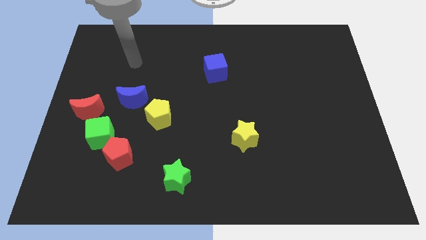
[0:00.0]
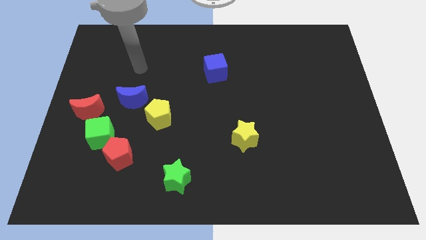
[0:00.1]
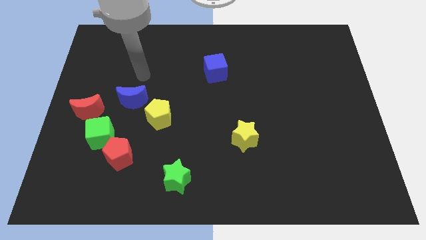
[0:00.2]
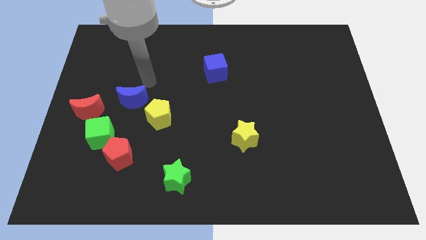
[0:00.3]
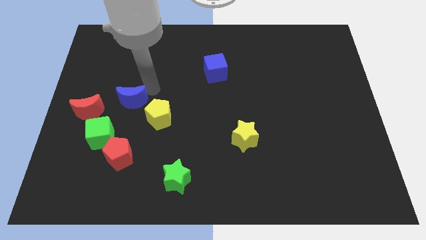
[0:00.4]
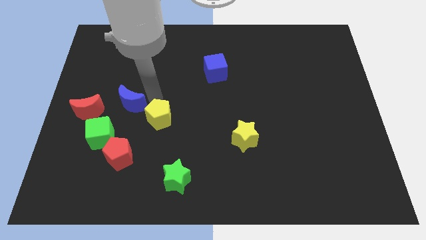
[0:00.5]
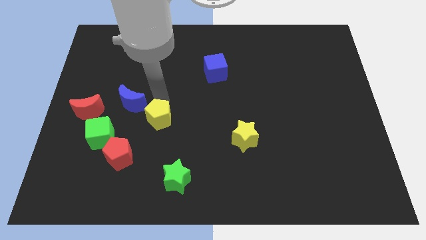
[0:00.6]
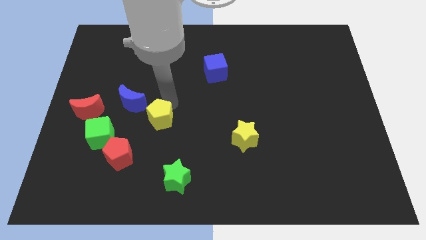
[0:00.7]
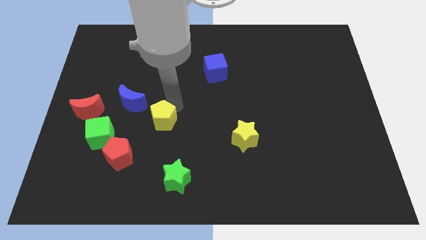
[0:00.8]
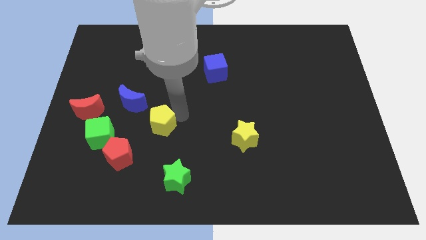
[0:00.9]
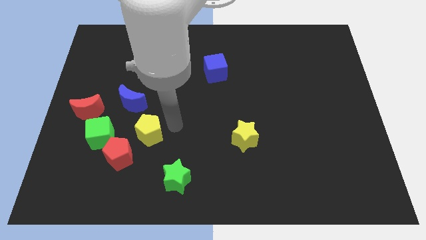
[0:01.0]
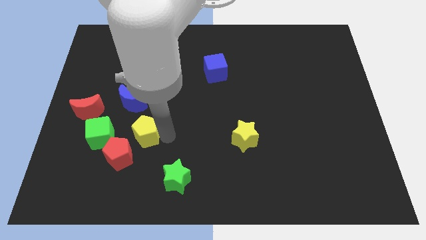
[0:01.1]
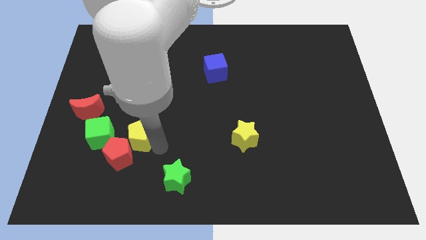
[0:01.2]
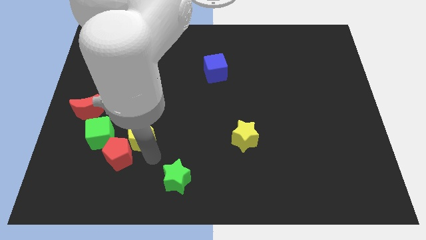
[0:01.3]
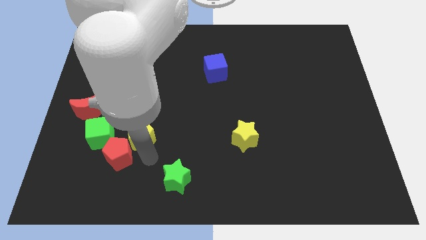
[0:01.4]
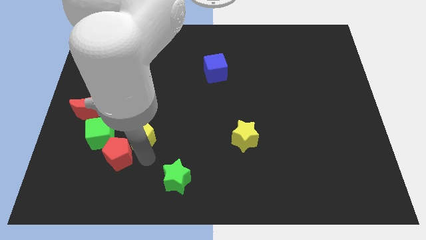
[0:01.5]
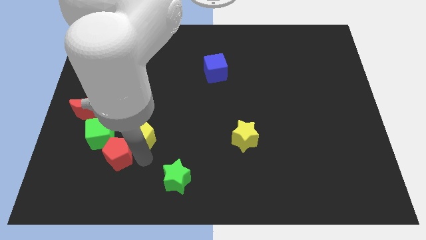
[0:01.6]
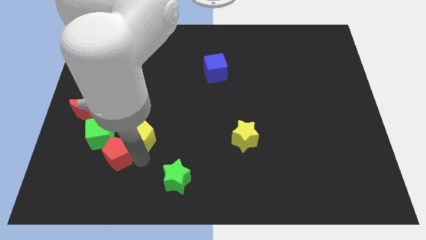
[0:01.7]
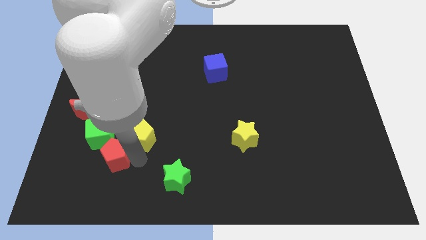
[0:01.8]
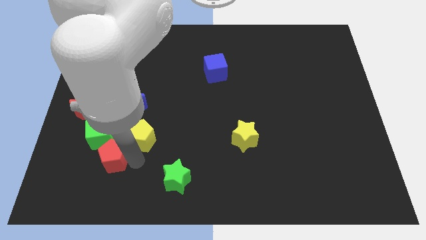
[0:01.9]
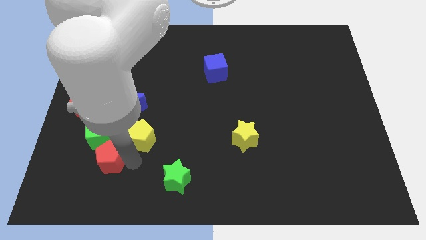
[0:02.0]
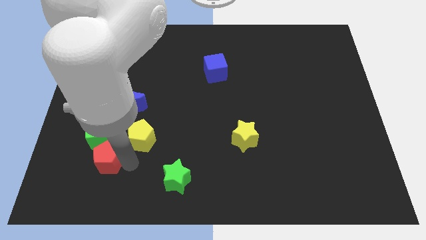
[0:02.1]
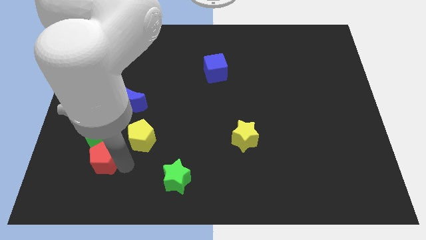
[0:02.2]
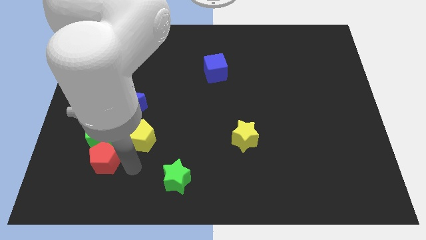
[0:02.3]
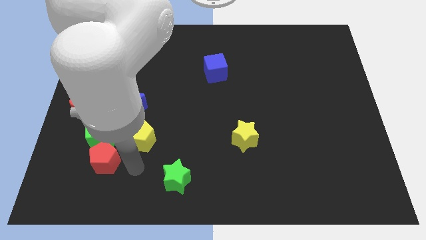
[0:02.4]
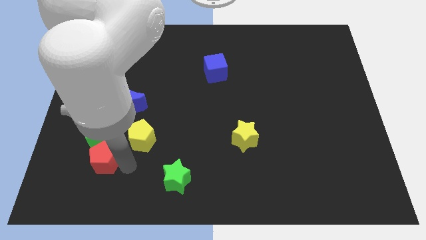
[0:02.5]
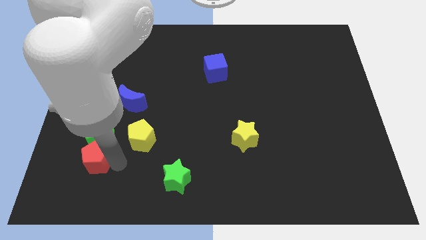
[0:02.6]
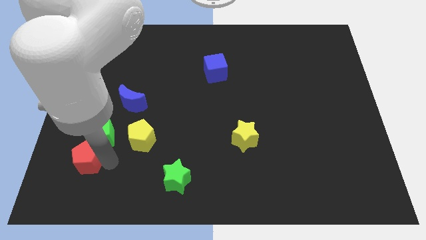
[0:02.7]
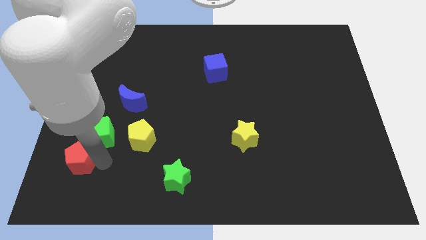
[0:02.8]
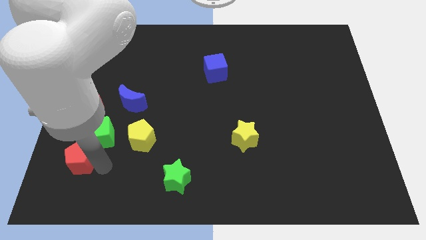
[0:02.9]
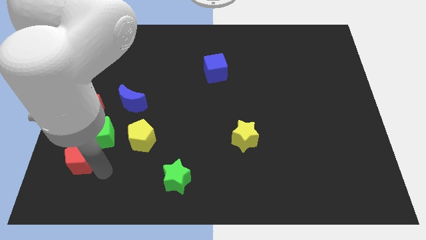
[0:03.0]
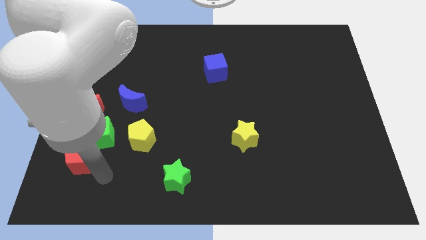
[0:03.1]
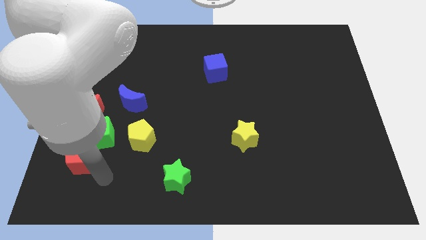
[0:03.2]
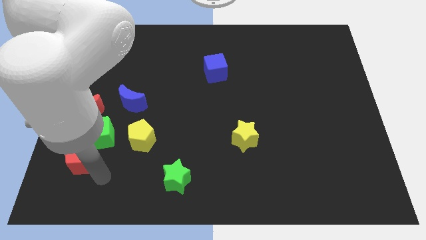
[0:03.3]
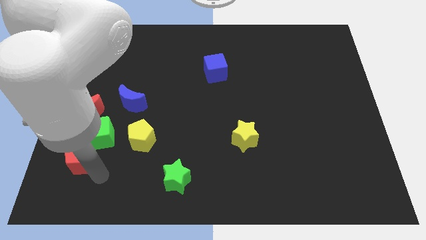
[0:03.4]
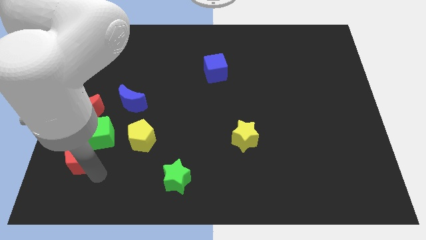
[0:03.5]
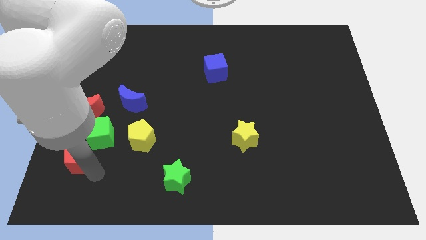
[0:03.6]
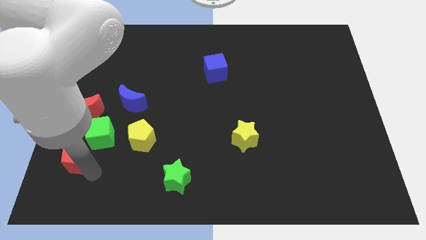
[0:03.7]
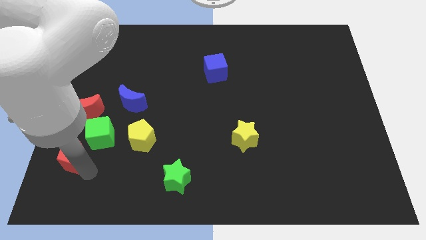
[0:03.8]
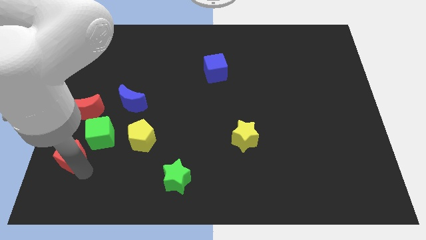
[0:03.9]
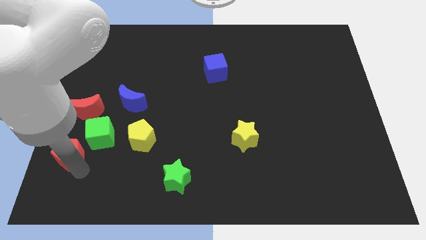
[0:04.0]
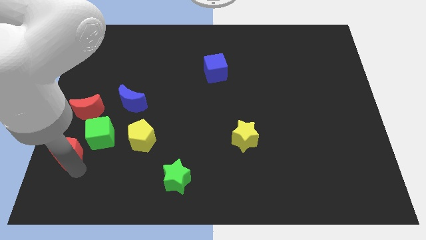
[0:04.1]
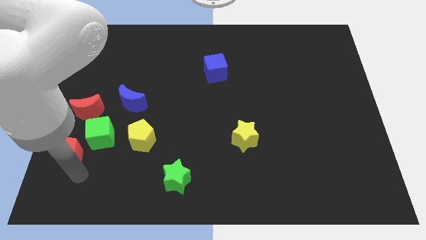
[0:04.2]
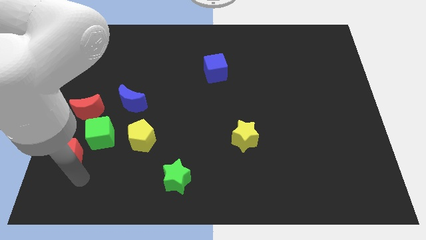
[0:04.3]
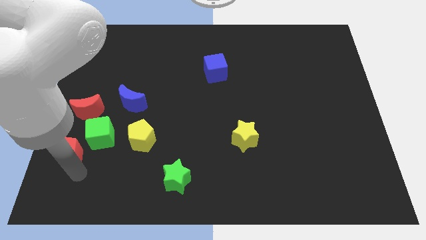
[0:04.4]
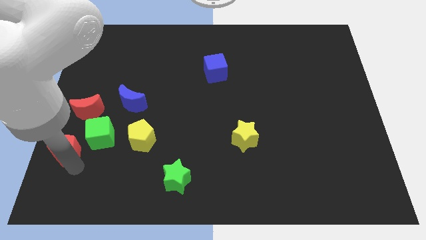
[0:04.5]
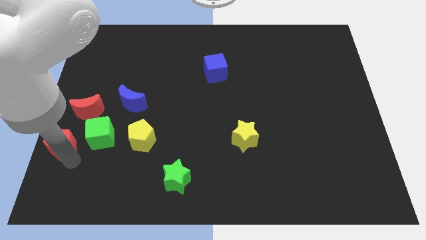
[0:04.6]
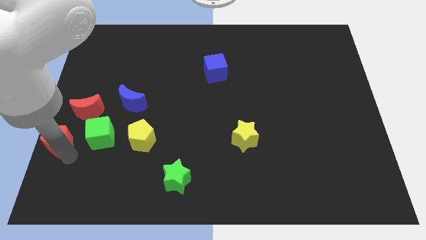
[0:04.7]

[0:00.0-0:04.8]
put the red pentagon to the left side

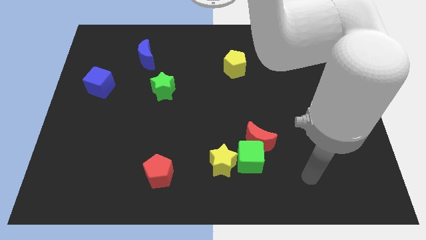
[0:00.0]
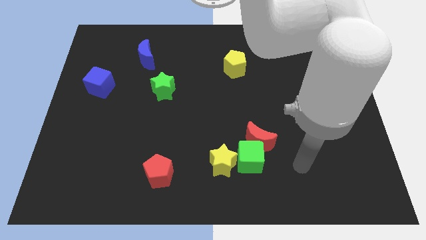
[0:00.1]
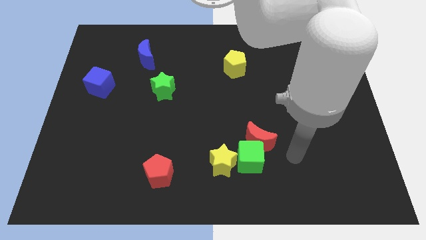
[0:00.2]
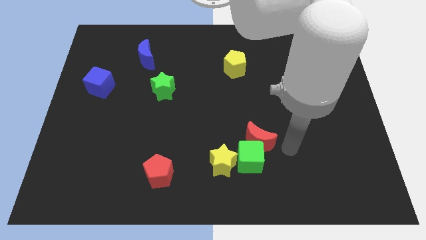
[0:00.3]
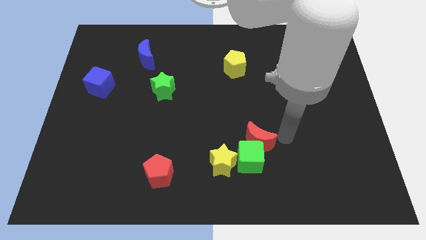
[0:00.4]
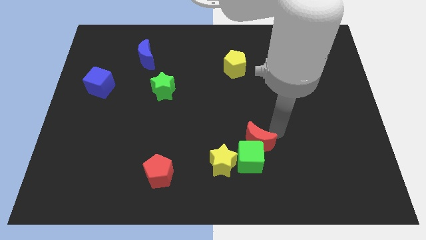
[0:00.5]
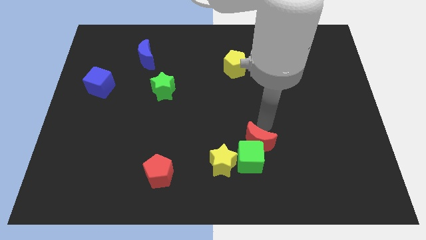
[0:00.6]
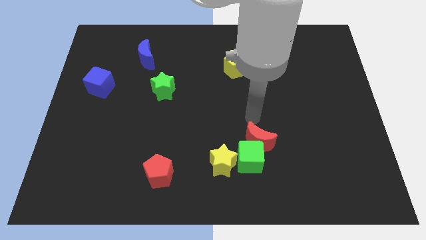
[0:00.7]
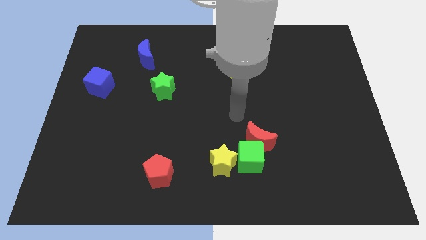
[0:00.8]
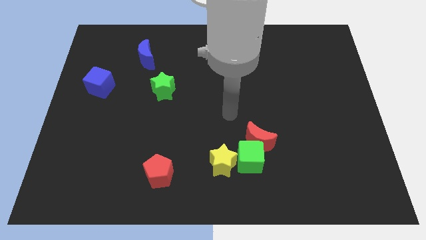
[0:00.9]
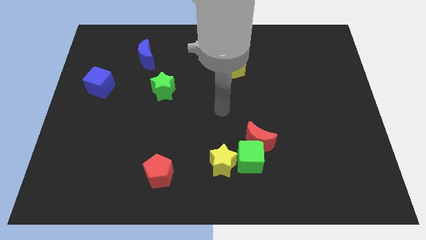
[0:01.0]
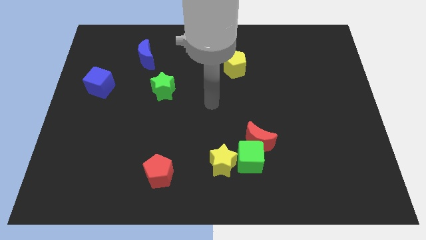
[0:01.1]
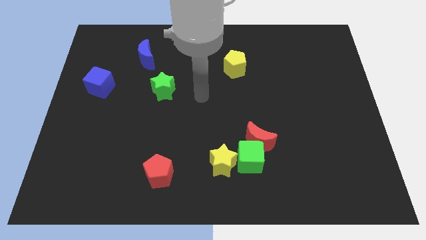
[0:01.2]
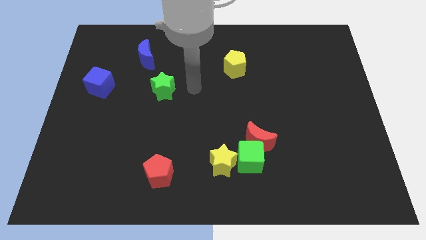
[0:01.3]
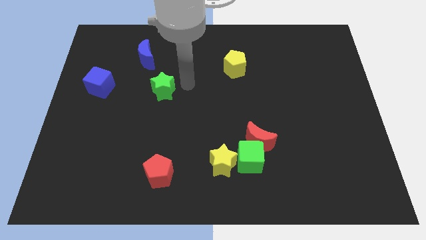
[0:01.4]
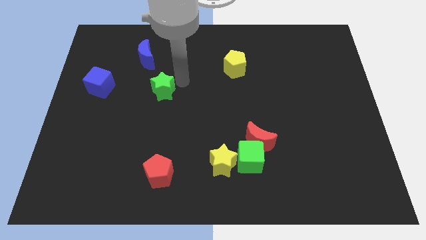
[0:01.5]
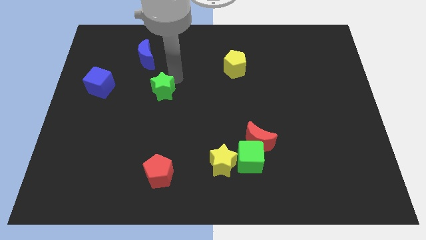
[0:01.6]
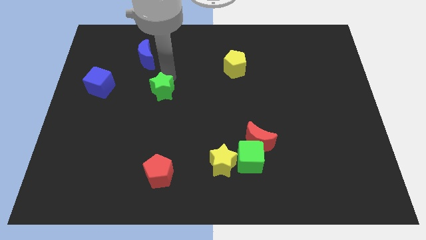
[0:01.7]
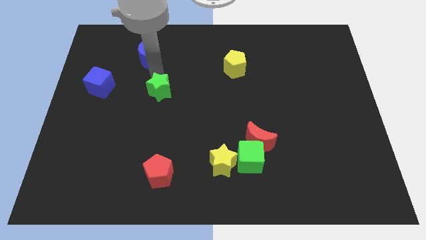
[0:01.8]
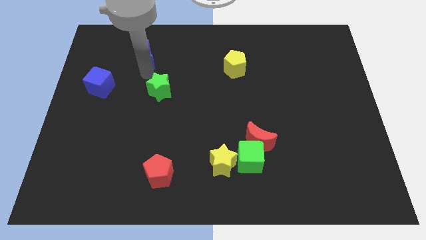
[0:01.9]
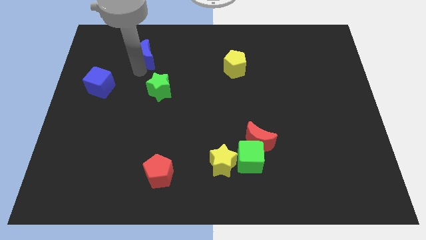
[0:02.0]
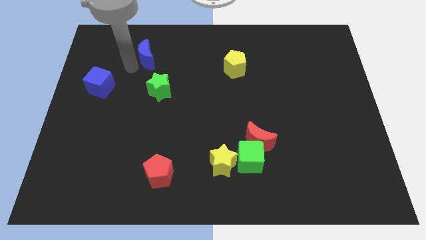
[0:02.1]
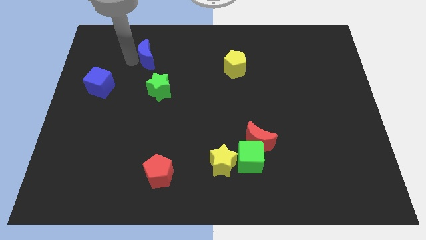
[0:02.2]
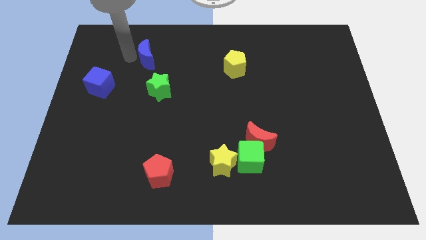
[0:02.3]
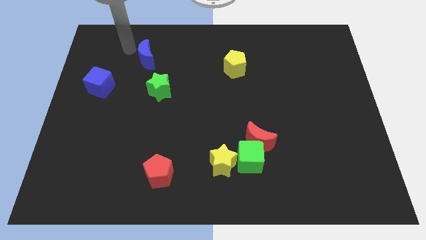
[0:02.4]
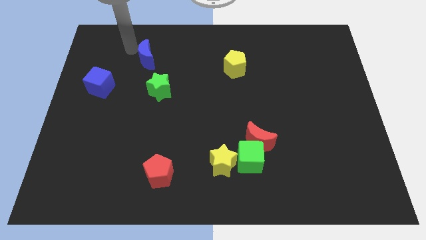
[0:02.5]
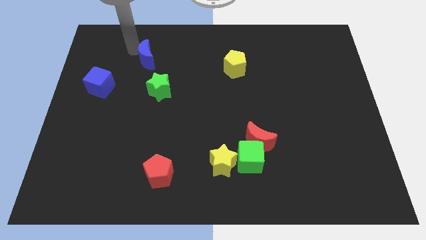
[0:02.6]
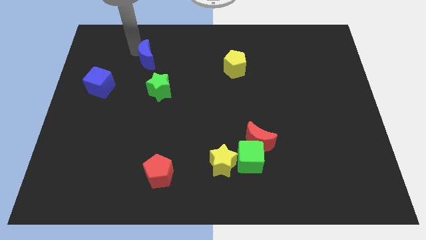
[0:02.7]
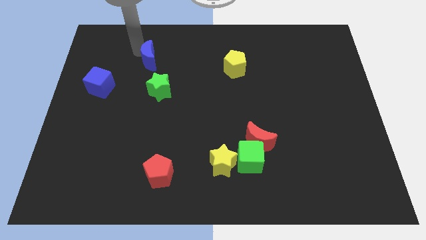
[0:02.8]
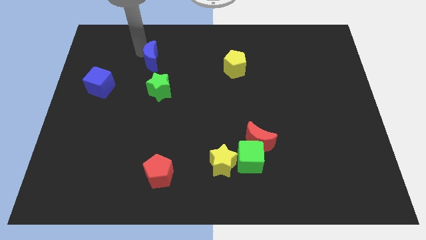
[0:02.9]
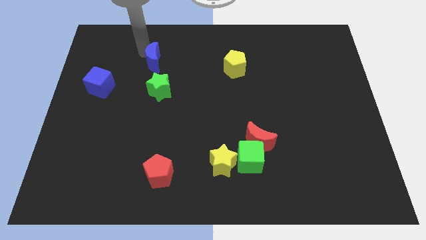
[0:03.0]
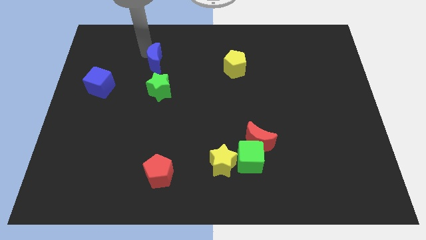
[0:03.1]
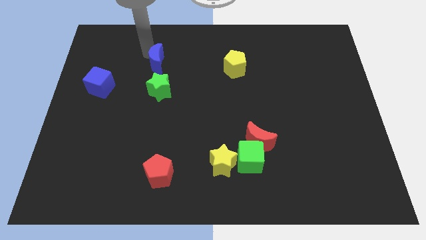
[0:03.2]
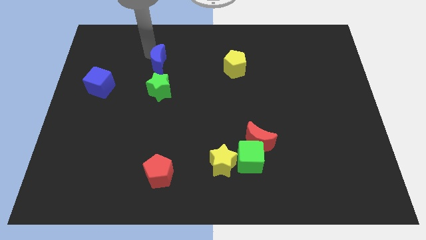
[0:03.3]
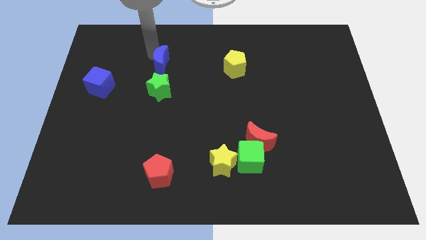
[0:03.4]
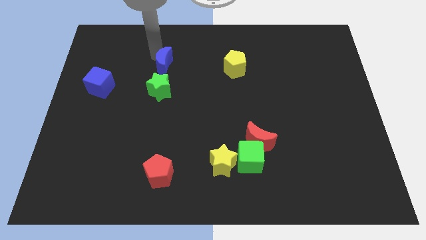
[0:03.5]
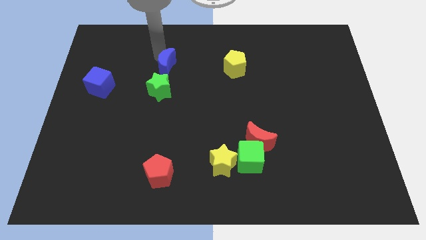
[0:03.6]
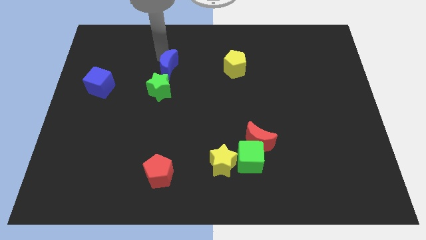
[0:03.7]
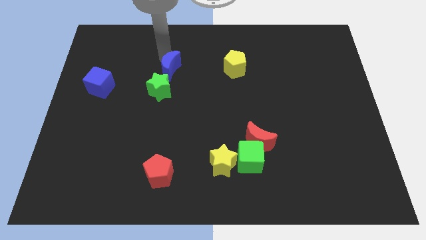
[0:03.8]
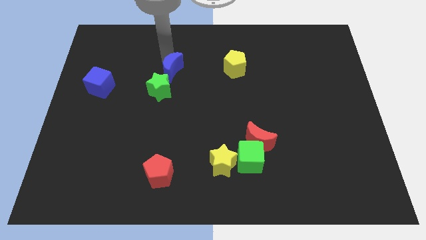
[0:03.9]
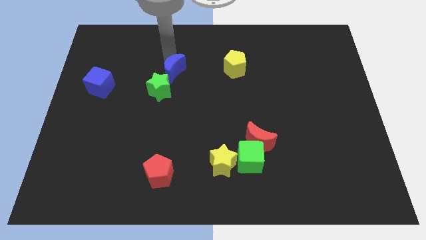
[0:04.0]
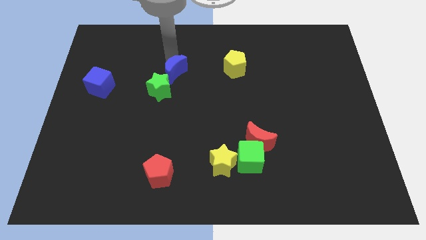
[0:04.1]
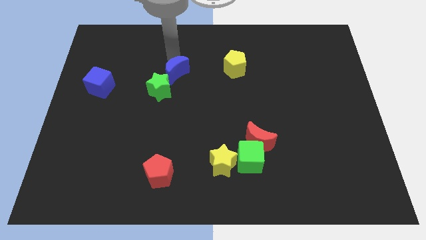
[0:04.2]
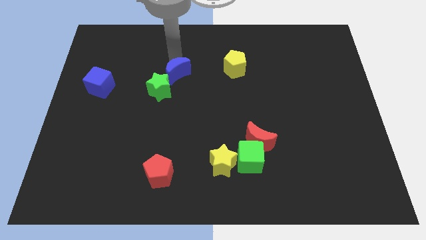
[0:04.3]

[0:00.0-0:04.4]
push the blue moon to the middle of the board
